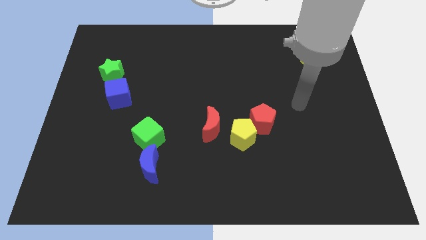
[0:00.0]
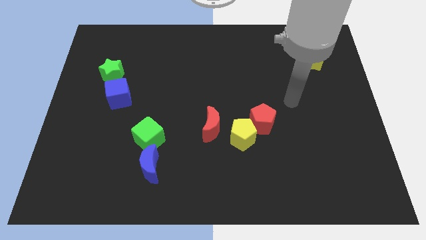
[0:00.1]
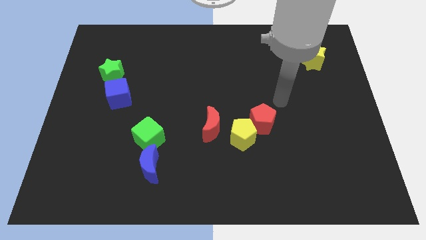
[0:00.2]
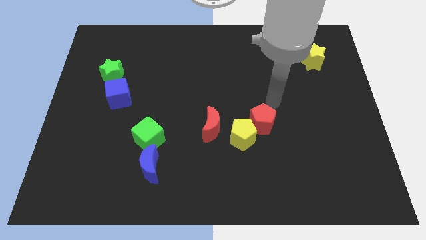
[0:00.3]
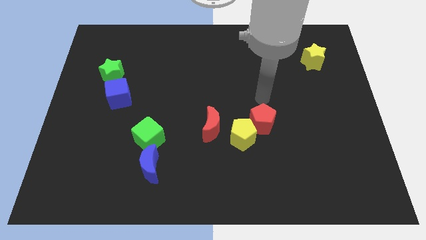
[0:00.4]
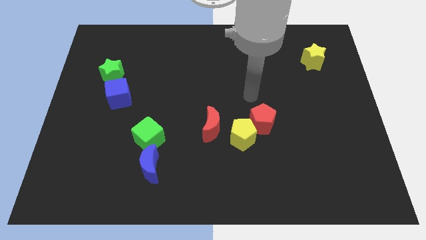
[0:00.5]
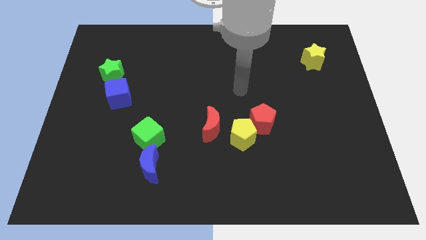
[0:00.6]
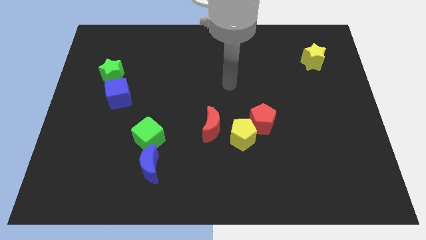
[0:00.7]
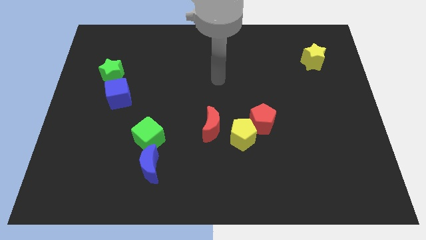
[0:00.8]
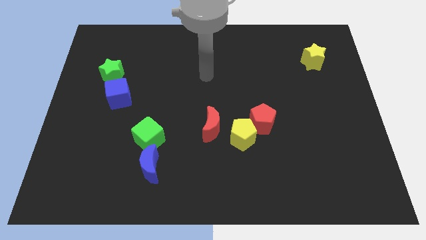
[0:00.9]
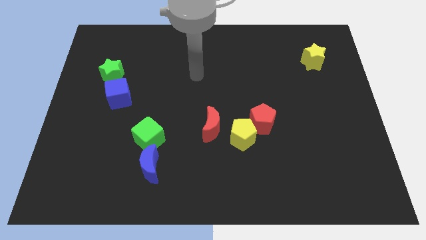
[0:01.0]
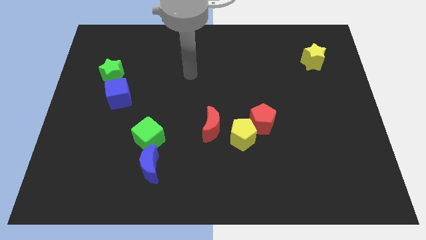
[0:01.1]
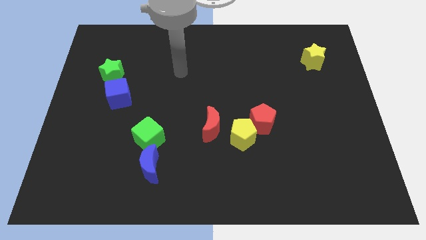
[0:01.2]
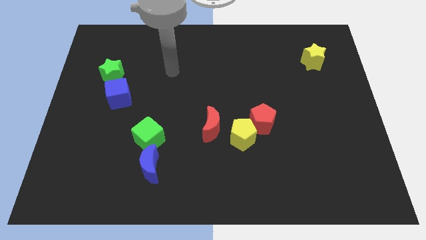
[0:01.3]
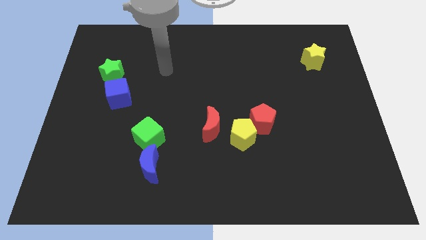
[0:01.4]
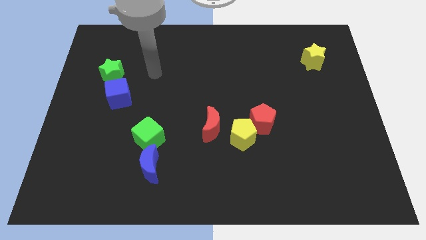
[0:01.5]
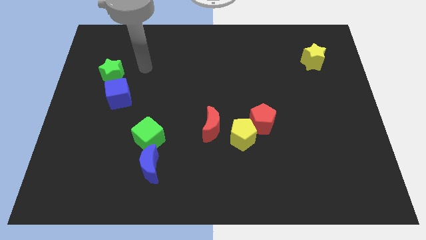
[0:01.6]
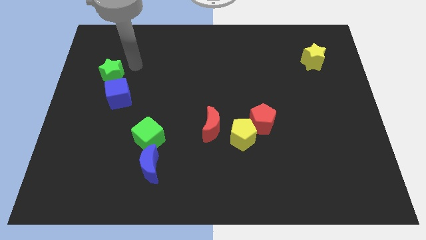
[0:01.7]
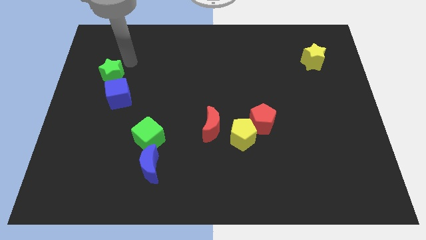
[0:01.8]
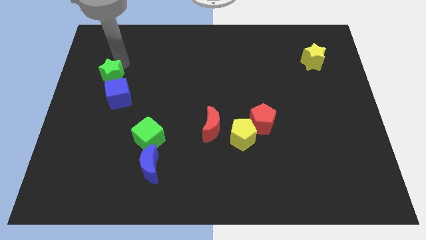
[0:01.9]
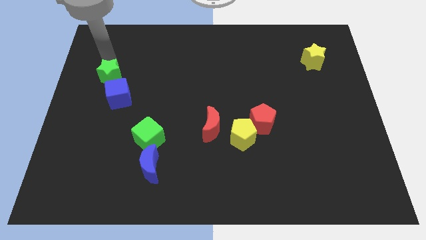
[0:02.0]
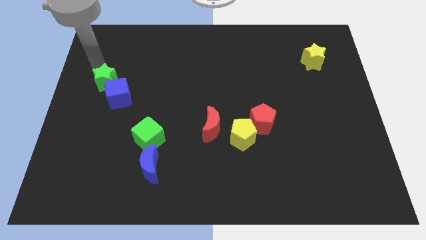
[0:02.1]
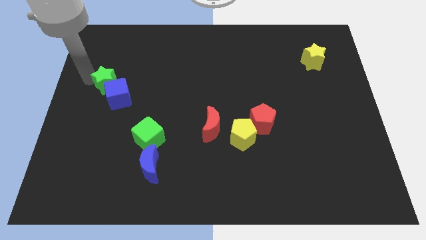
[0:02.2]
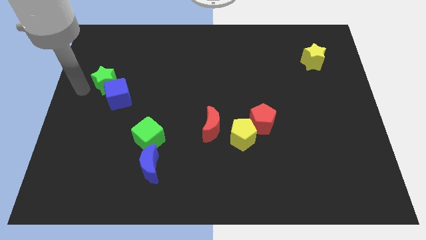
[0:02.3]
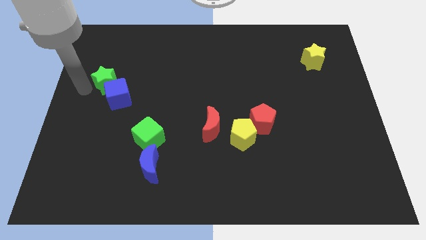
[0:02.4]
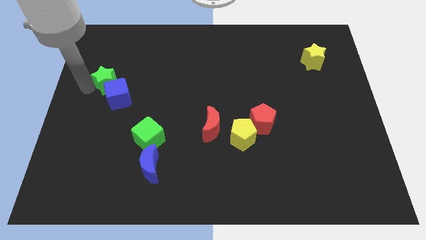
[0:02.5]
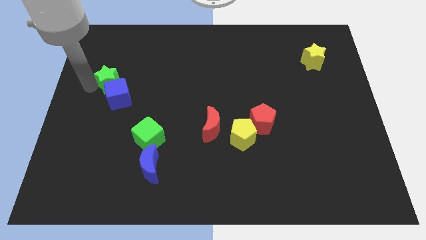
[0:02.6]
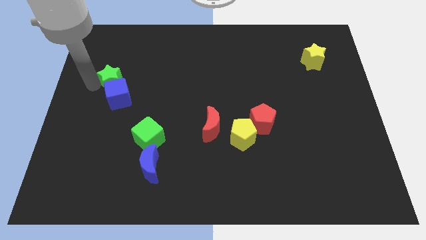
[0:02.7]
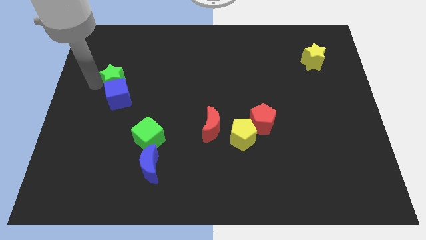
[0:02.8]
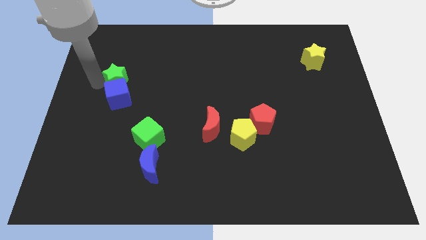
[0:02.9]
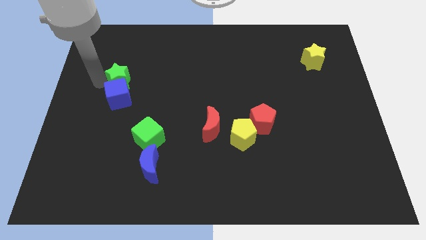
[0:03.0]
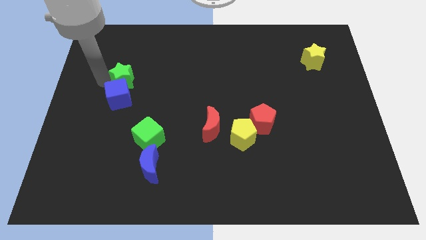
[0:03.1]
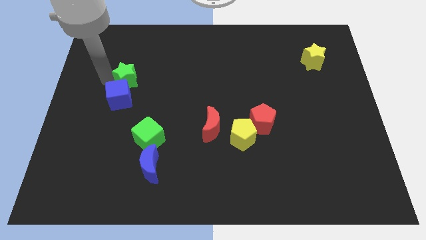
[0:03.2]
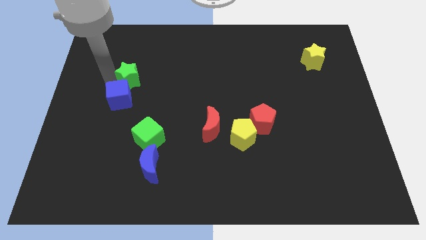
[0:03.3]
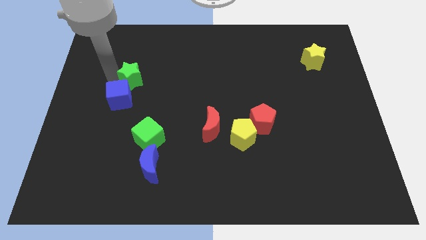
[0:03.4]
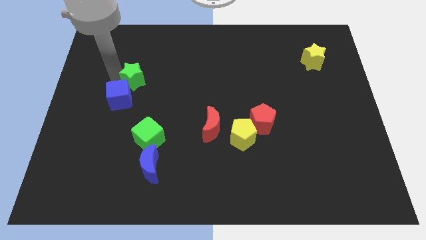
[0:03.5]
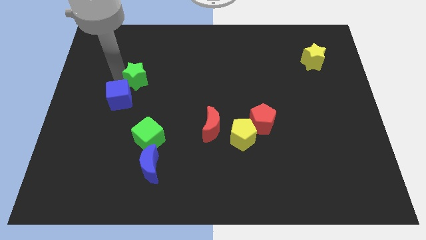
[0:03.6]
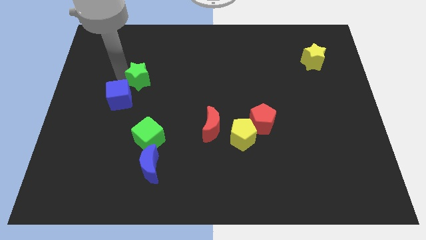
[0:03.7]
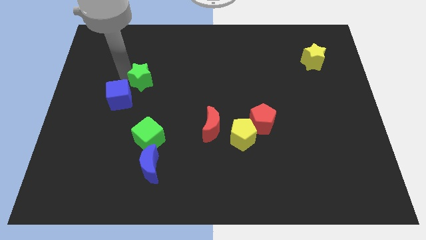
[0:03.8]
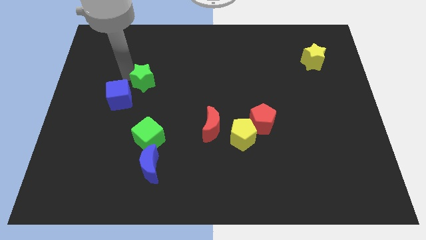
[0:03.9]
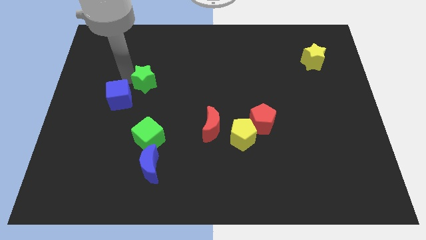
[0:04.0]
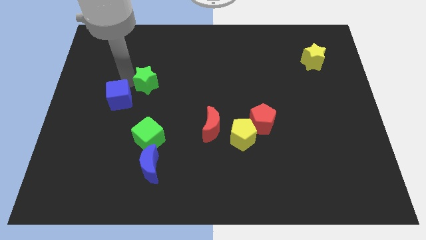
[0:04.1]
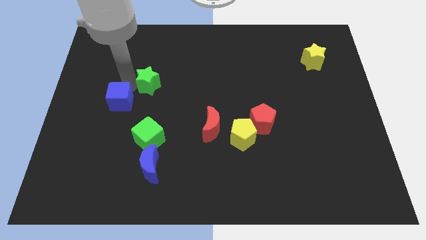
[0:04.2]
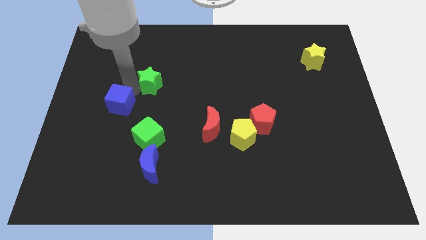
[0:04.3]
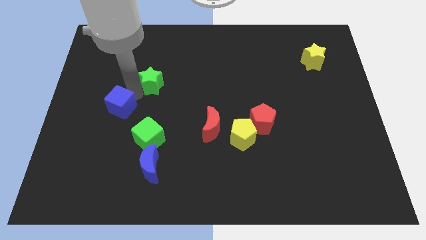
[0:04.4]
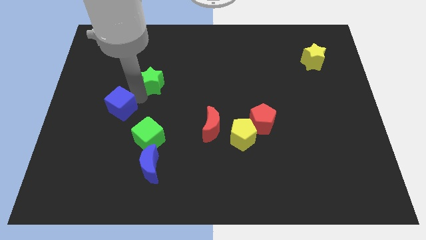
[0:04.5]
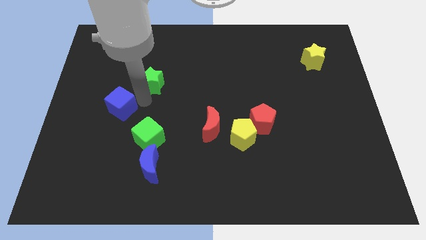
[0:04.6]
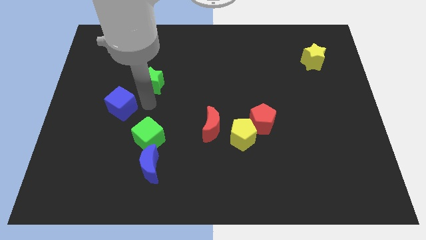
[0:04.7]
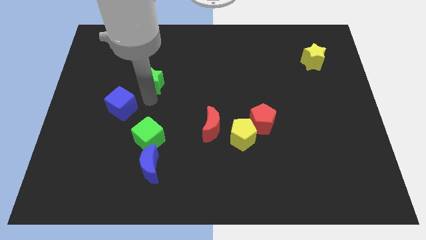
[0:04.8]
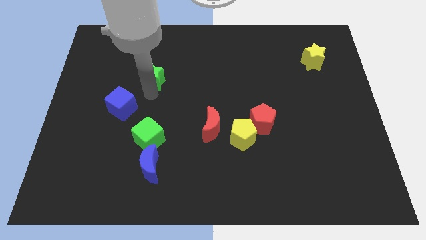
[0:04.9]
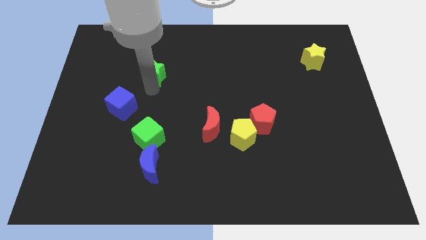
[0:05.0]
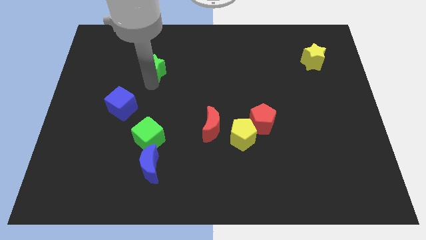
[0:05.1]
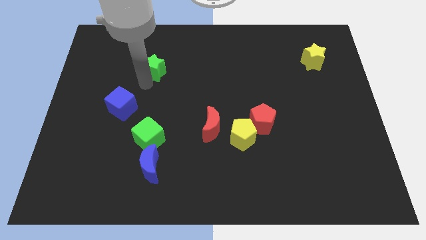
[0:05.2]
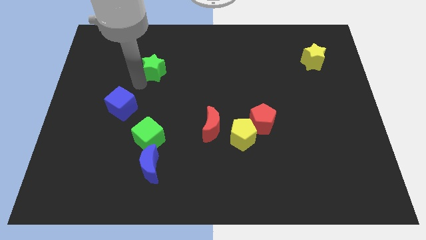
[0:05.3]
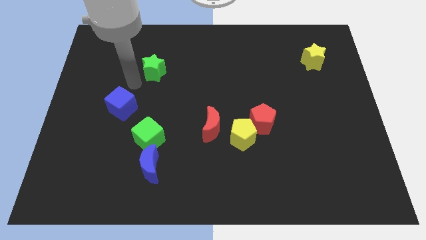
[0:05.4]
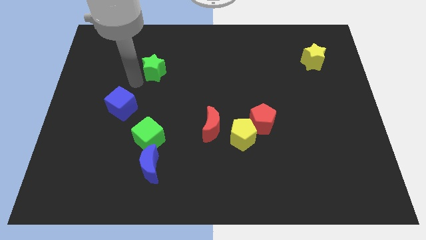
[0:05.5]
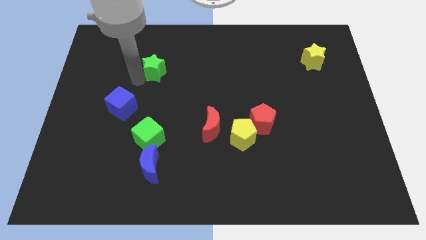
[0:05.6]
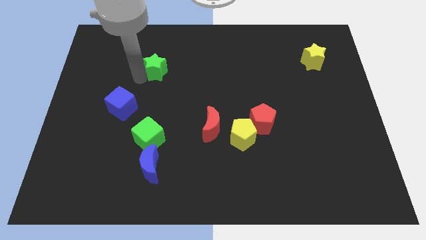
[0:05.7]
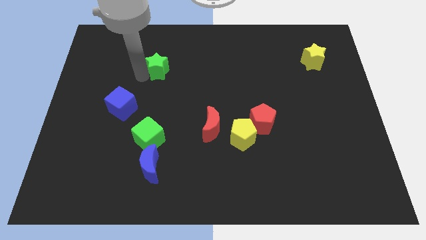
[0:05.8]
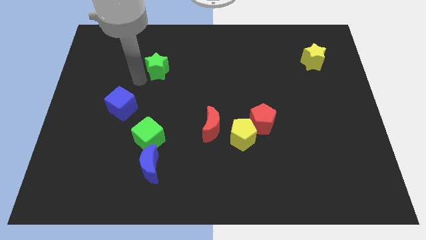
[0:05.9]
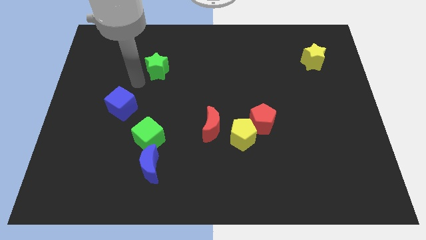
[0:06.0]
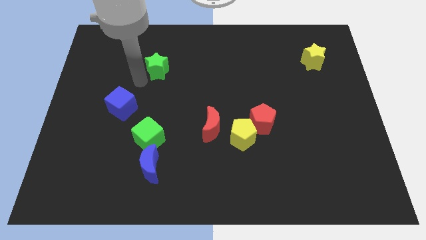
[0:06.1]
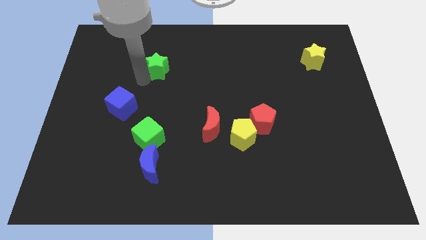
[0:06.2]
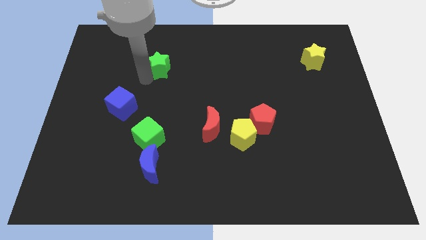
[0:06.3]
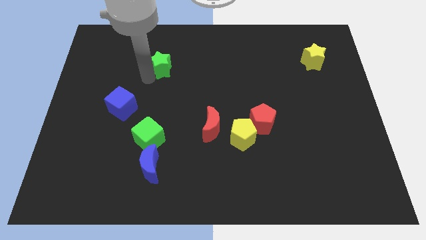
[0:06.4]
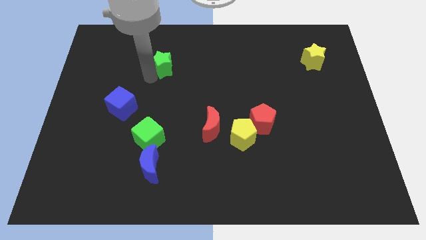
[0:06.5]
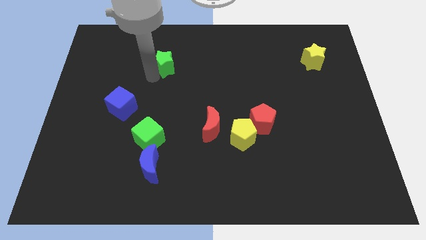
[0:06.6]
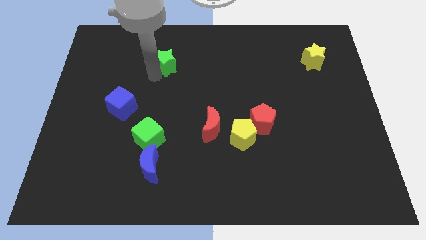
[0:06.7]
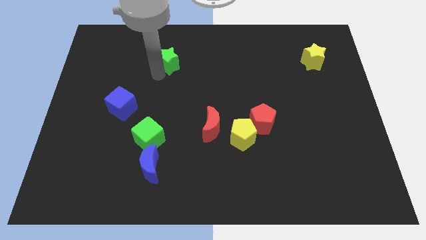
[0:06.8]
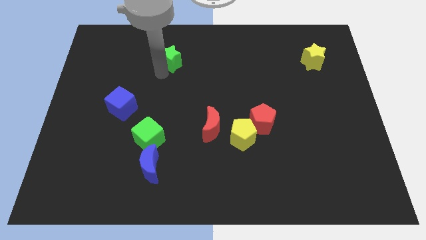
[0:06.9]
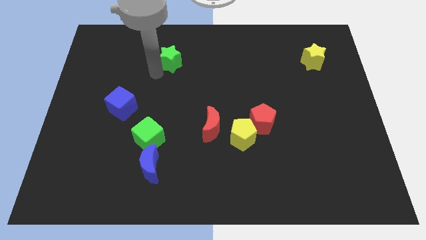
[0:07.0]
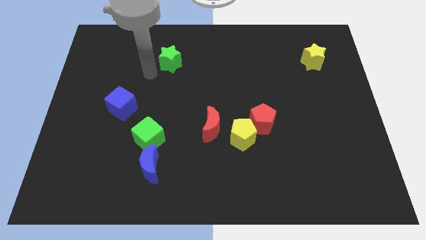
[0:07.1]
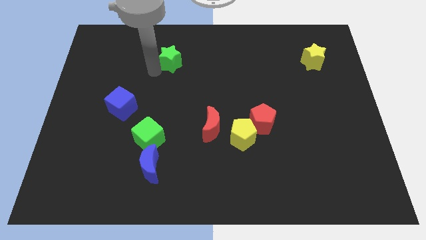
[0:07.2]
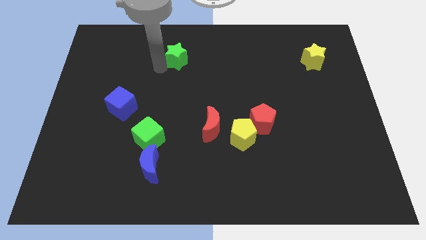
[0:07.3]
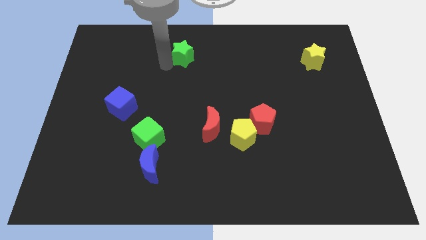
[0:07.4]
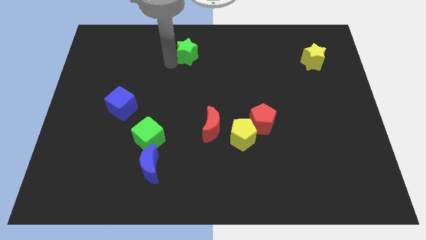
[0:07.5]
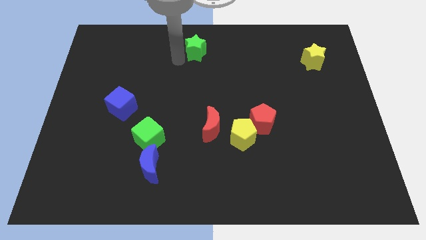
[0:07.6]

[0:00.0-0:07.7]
move the green star to the towards your base
